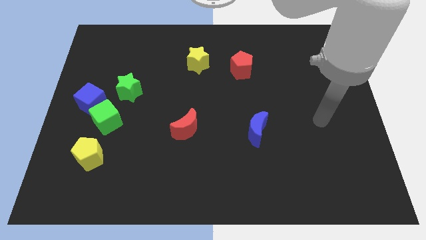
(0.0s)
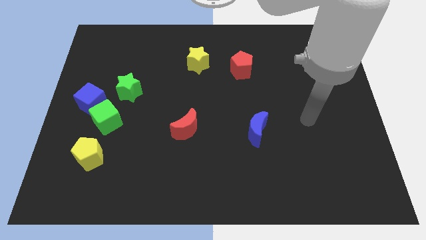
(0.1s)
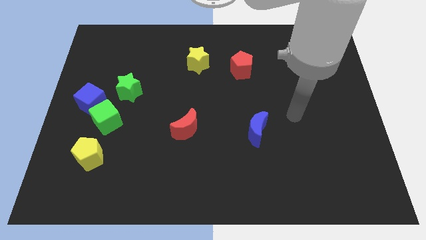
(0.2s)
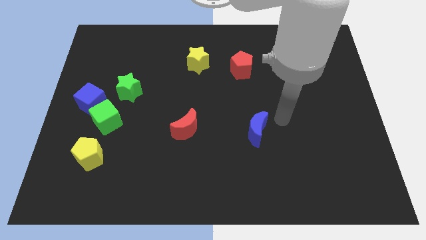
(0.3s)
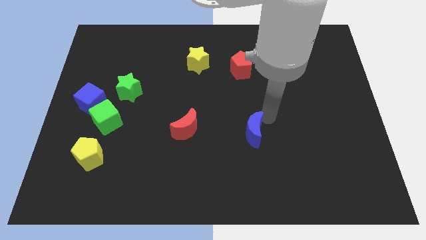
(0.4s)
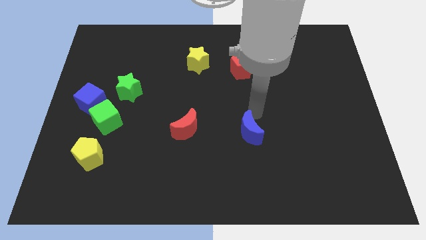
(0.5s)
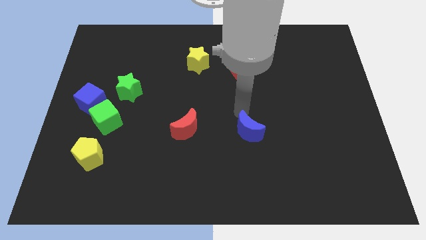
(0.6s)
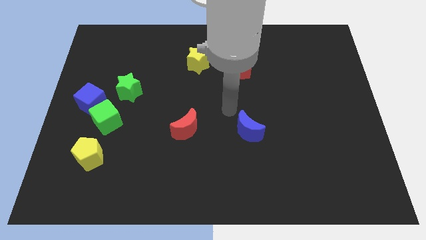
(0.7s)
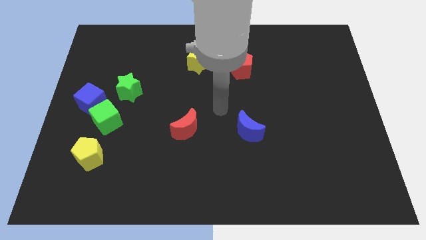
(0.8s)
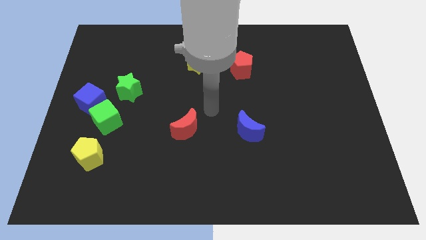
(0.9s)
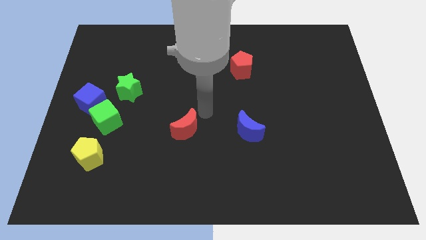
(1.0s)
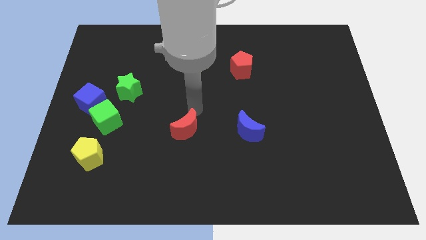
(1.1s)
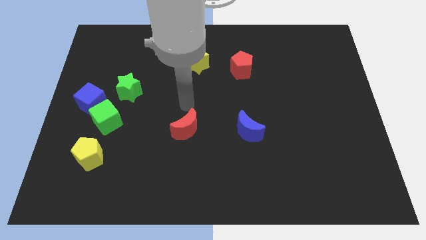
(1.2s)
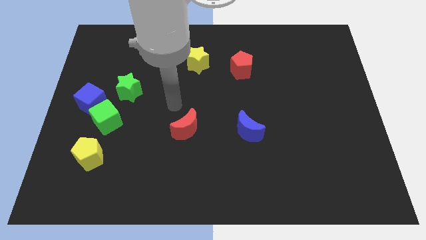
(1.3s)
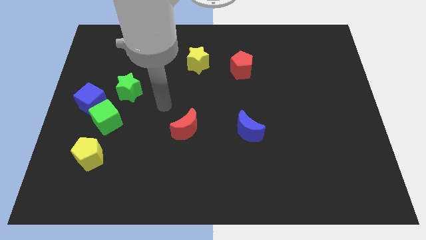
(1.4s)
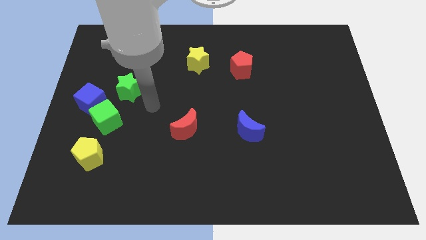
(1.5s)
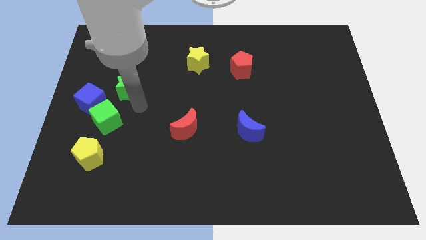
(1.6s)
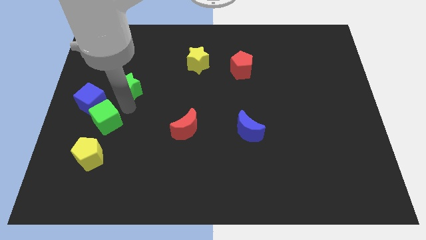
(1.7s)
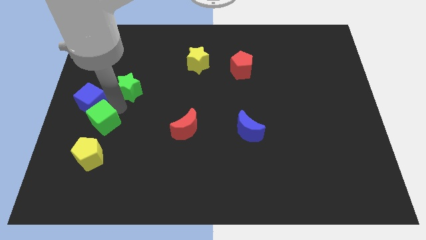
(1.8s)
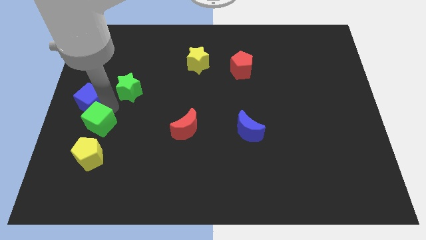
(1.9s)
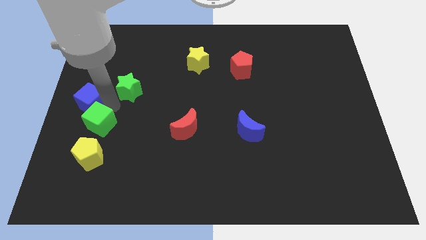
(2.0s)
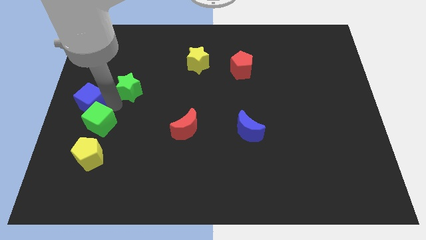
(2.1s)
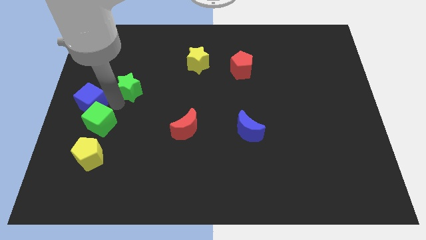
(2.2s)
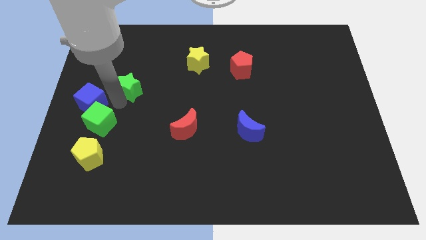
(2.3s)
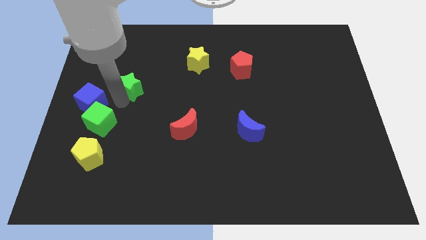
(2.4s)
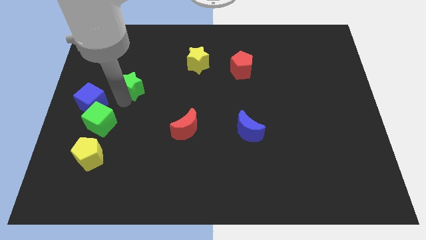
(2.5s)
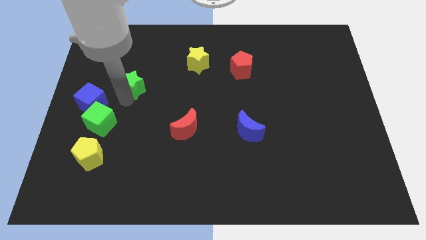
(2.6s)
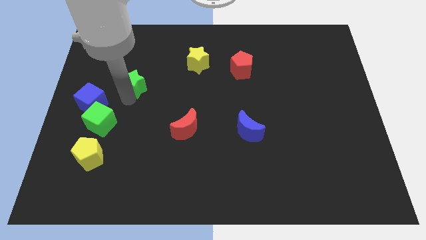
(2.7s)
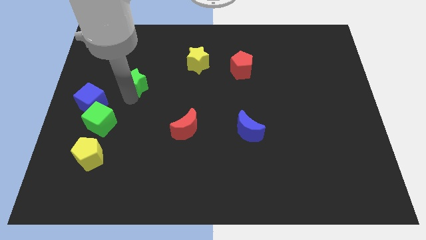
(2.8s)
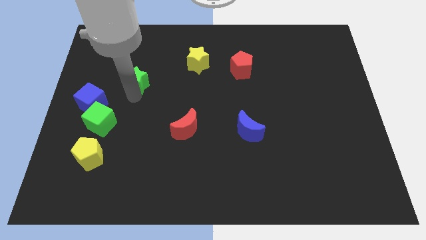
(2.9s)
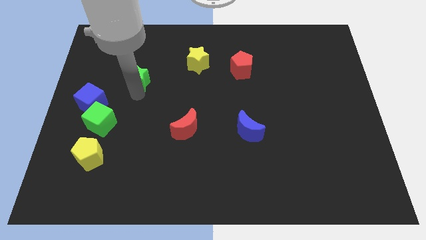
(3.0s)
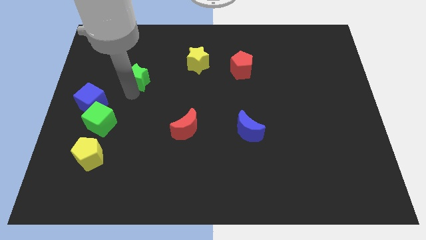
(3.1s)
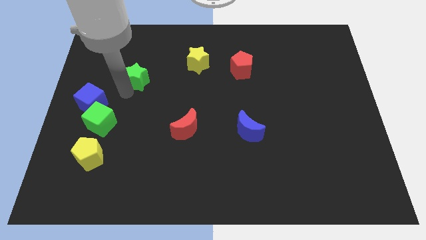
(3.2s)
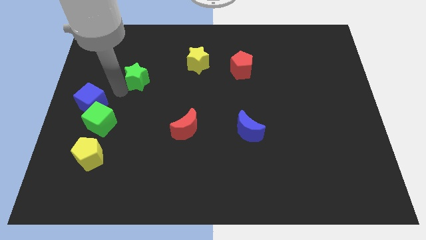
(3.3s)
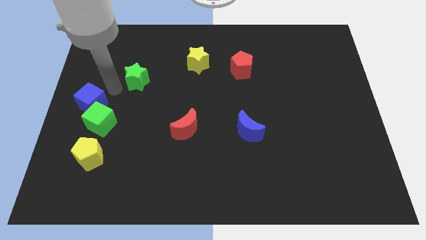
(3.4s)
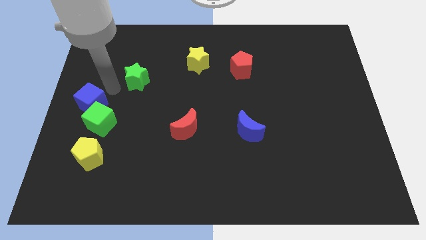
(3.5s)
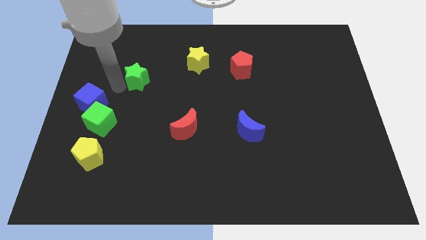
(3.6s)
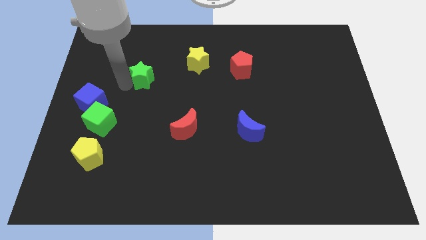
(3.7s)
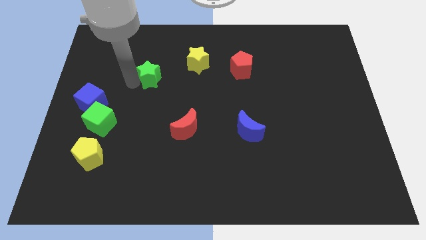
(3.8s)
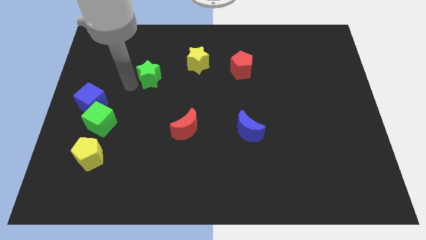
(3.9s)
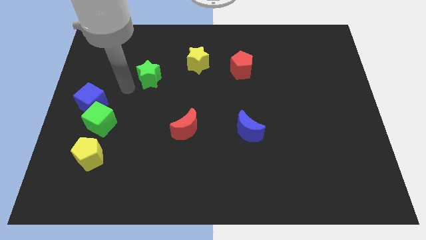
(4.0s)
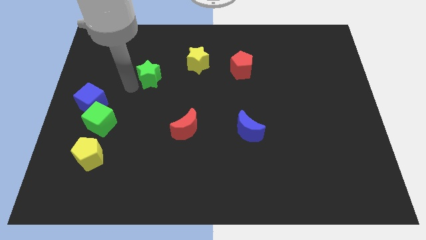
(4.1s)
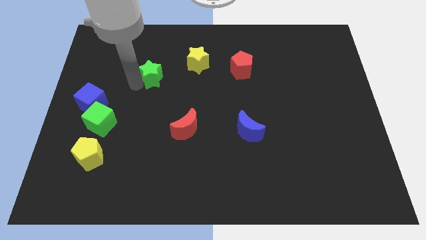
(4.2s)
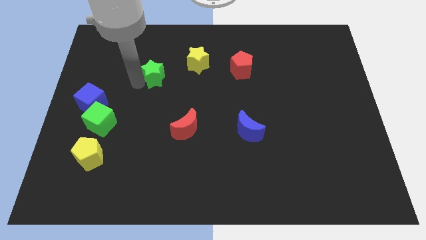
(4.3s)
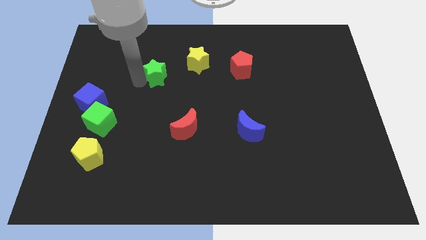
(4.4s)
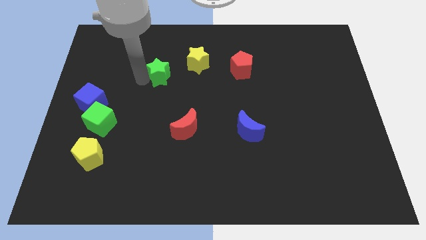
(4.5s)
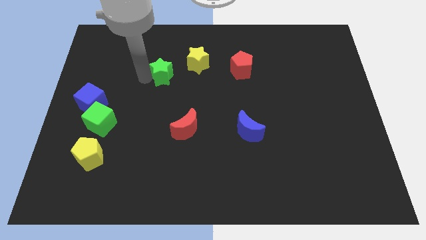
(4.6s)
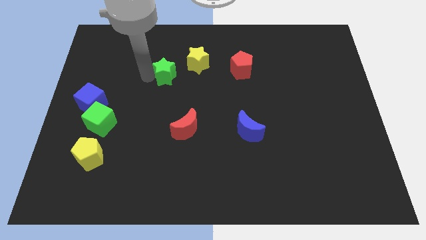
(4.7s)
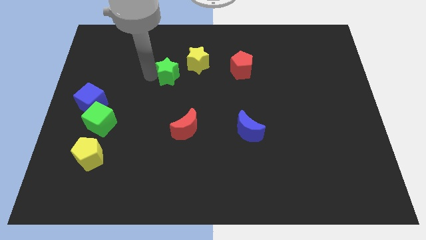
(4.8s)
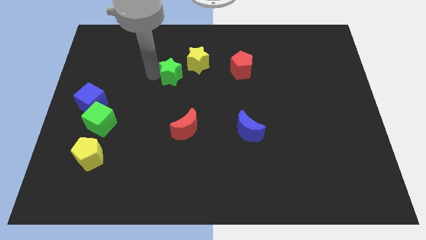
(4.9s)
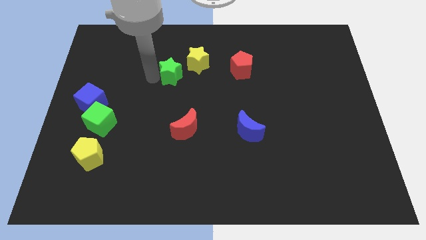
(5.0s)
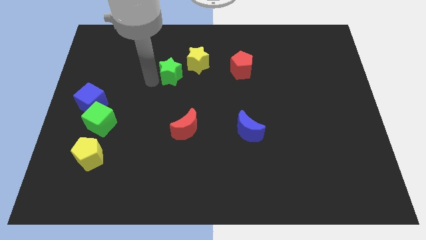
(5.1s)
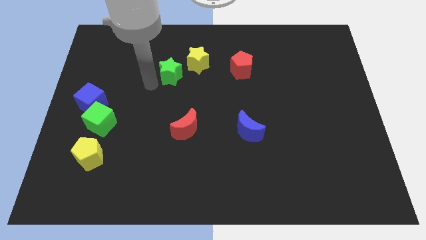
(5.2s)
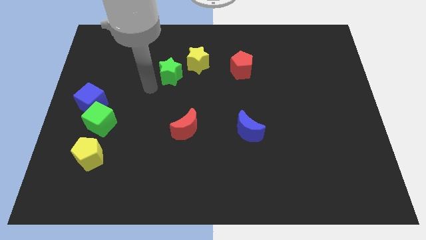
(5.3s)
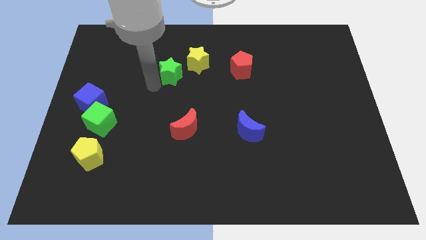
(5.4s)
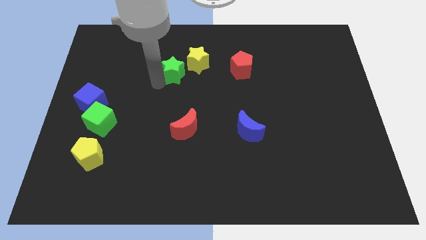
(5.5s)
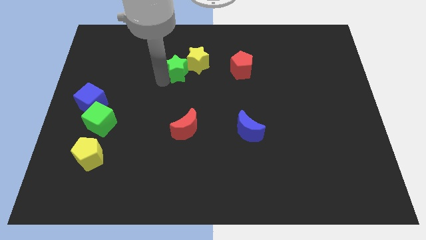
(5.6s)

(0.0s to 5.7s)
push the green star to the yellow star

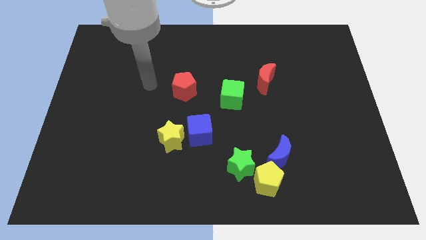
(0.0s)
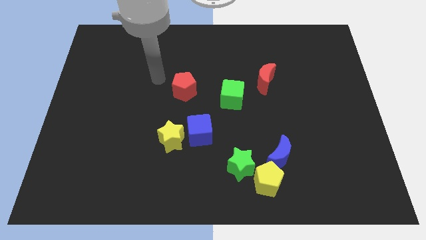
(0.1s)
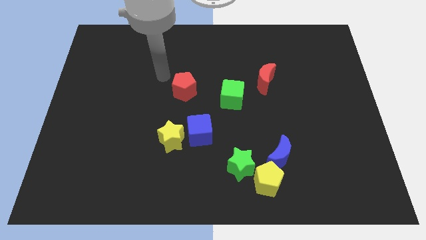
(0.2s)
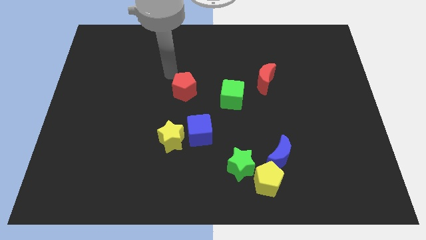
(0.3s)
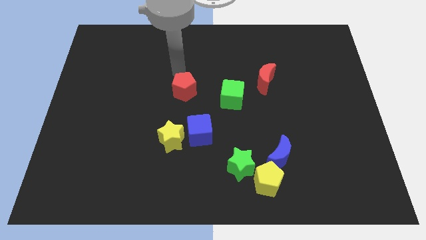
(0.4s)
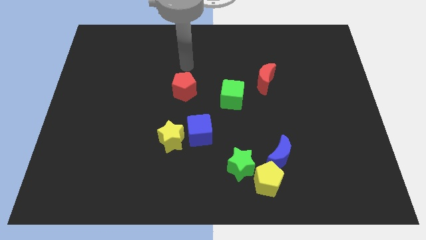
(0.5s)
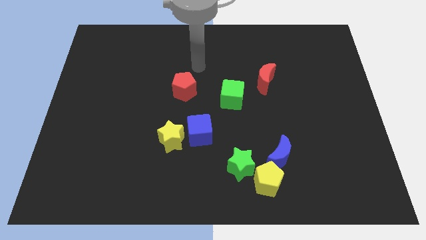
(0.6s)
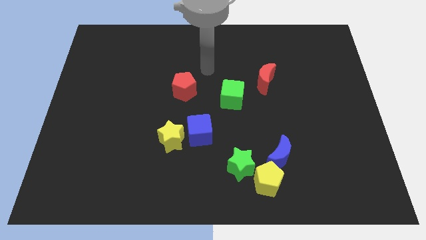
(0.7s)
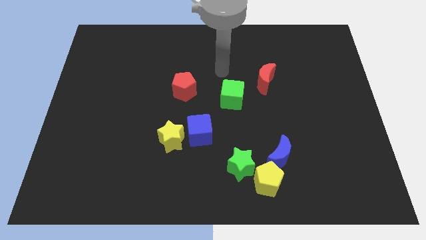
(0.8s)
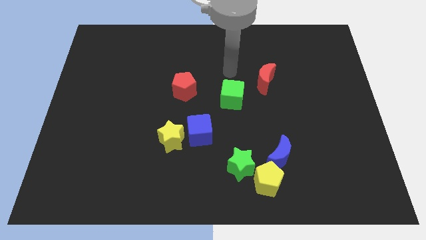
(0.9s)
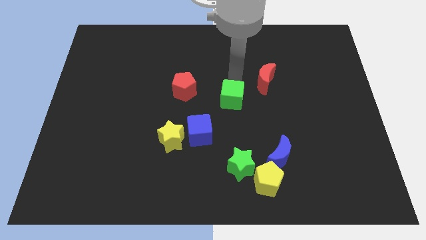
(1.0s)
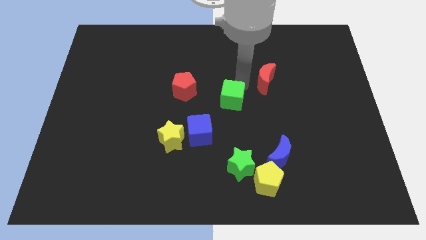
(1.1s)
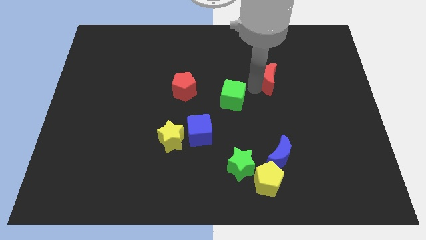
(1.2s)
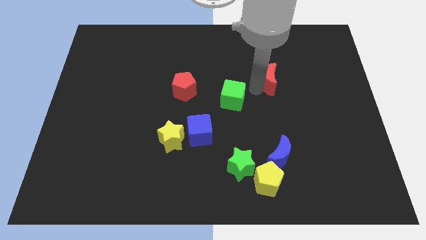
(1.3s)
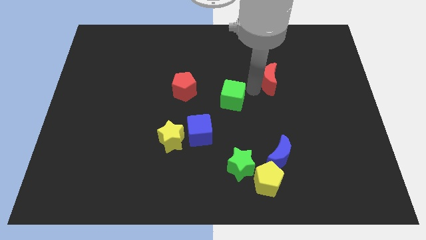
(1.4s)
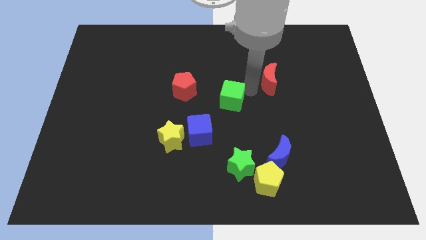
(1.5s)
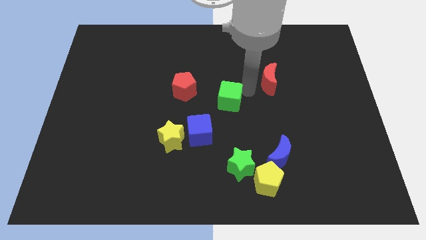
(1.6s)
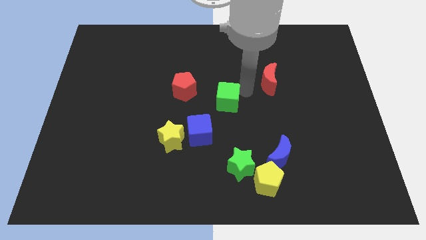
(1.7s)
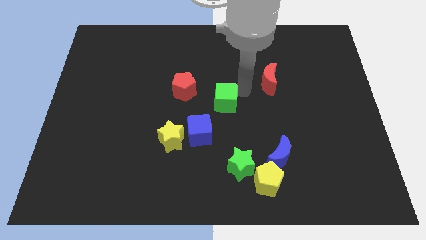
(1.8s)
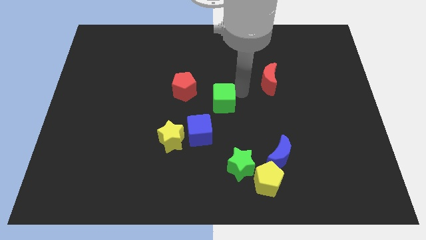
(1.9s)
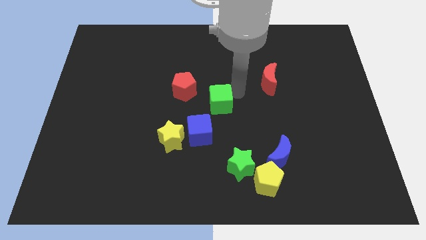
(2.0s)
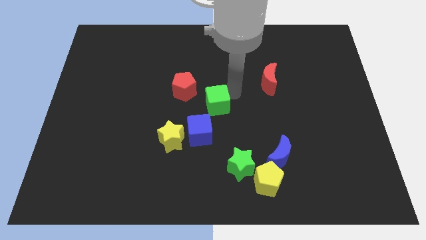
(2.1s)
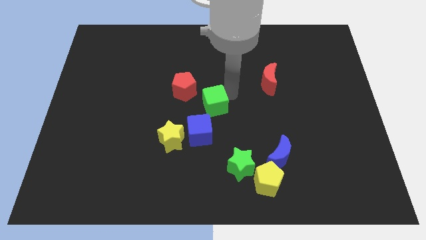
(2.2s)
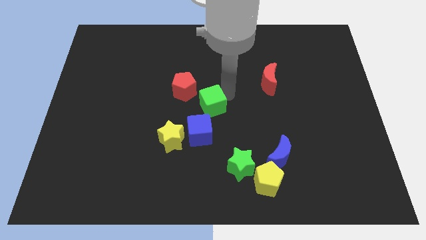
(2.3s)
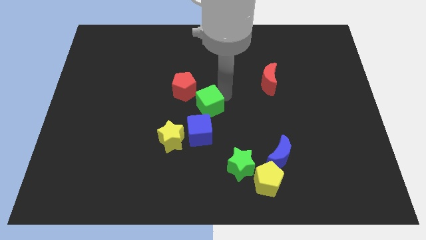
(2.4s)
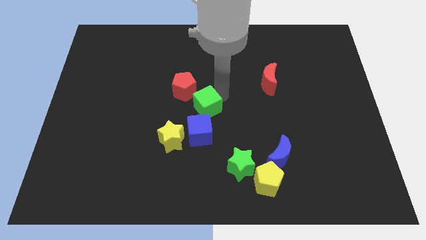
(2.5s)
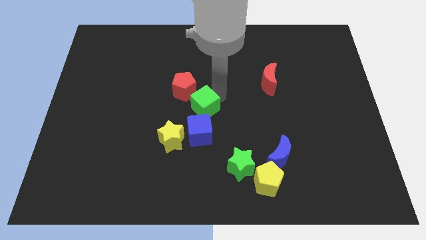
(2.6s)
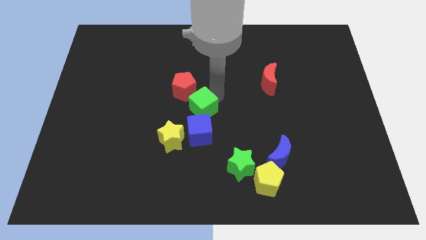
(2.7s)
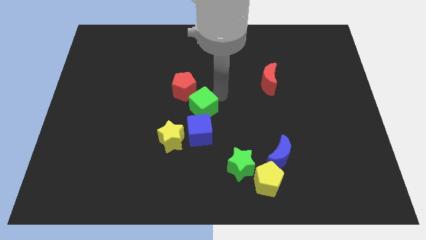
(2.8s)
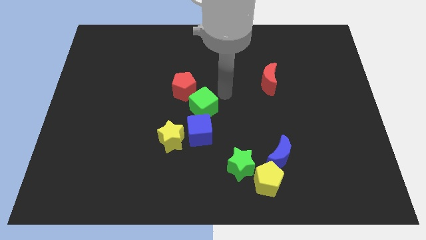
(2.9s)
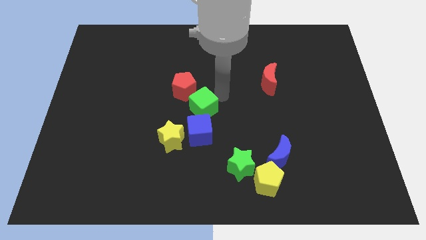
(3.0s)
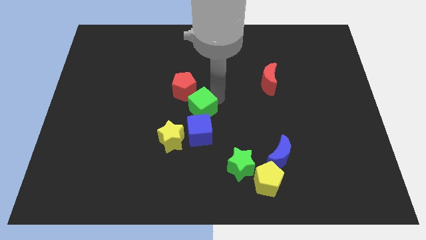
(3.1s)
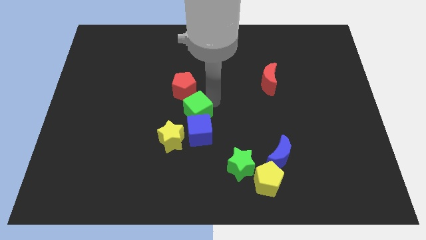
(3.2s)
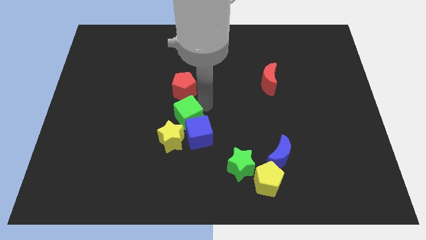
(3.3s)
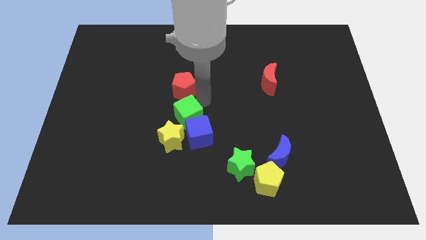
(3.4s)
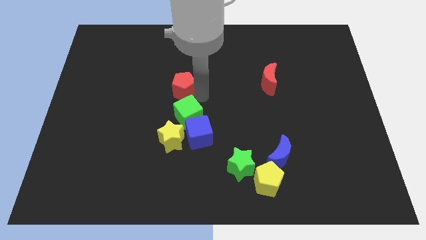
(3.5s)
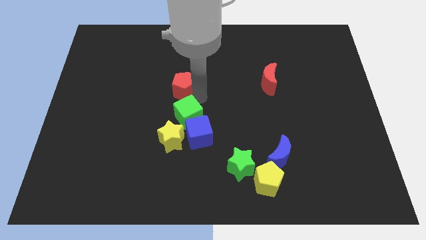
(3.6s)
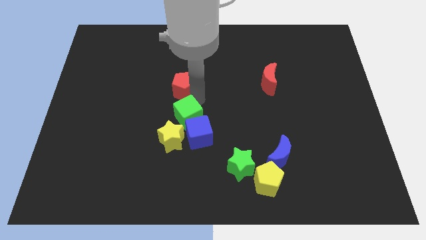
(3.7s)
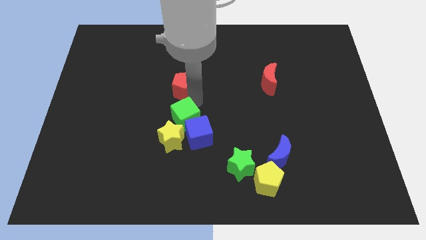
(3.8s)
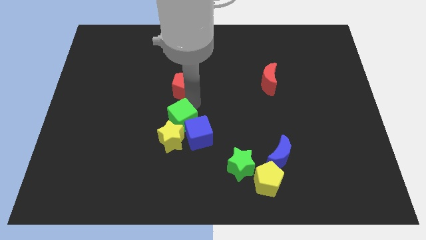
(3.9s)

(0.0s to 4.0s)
slide the green cube next to the yellow star
